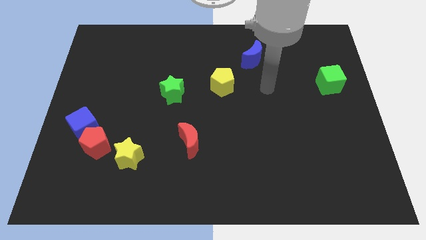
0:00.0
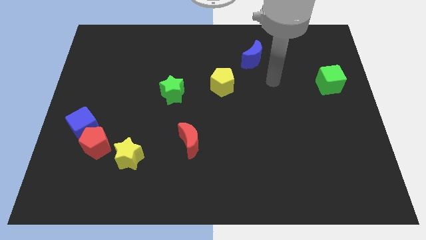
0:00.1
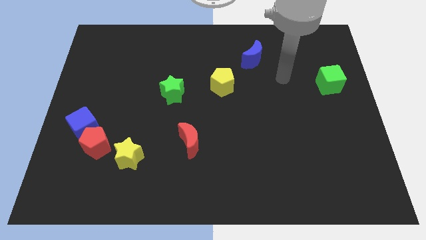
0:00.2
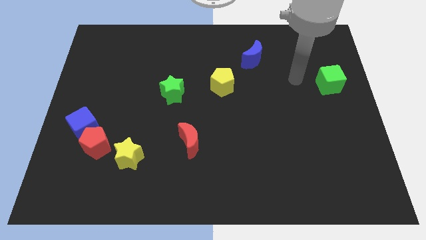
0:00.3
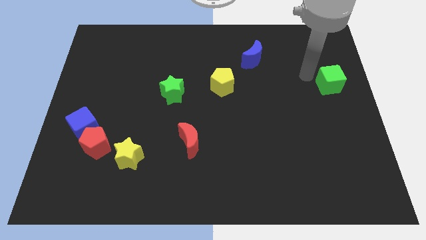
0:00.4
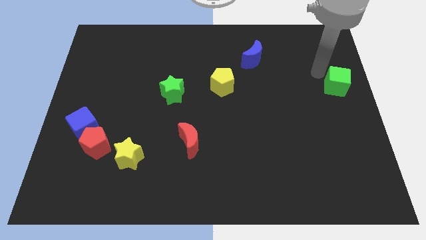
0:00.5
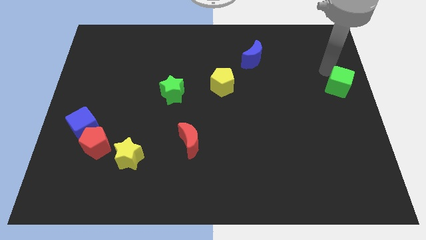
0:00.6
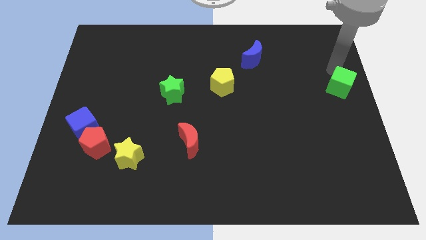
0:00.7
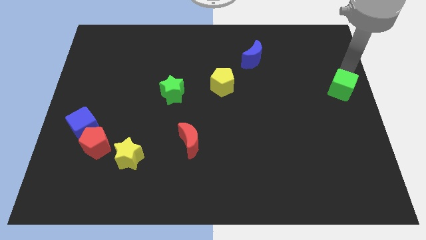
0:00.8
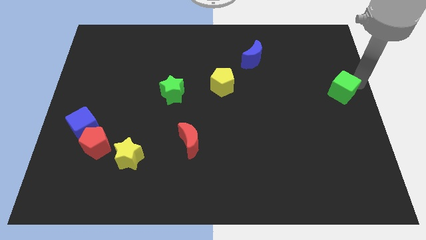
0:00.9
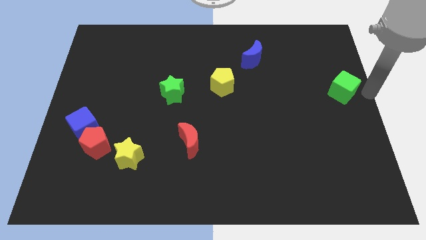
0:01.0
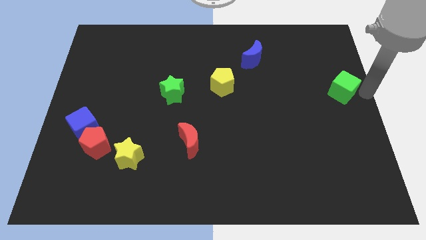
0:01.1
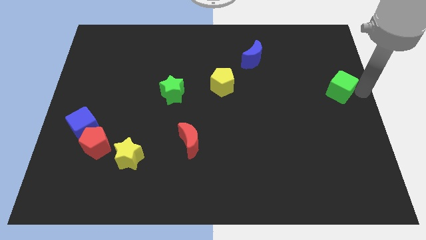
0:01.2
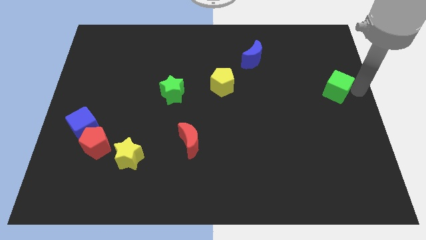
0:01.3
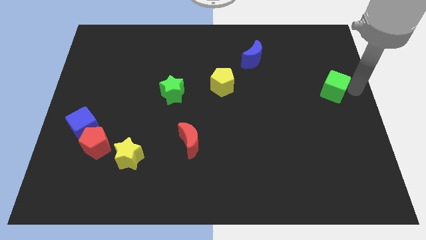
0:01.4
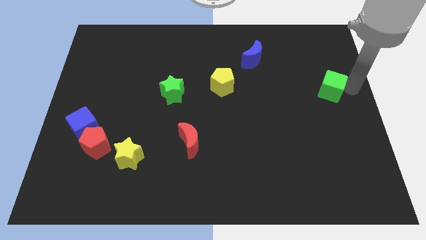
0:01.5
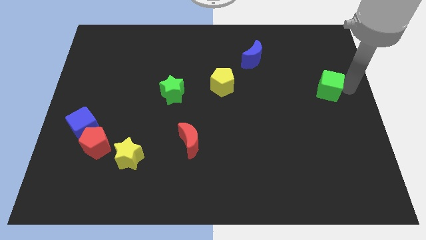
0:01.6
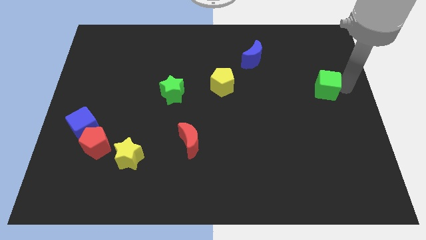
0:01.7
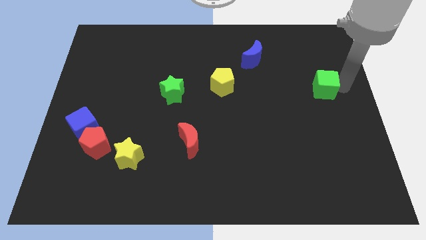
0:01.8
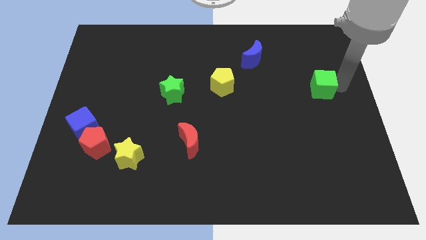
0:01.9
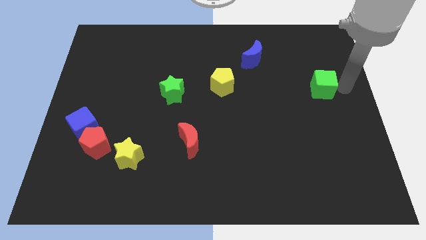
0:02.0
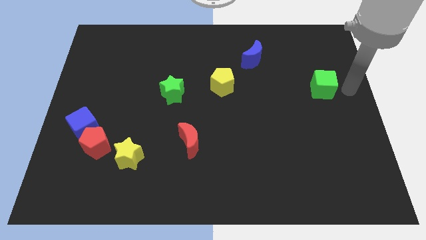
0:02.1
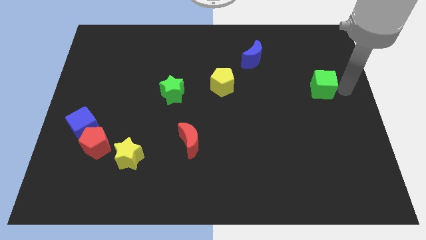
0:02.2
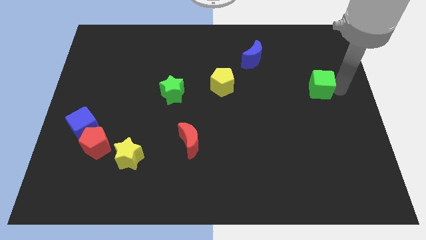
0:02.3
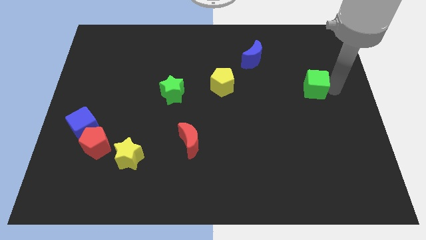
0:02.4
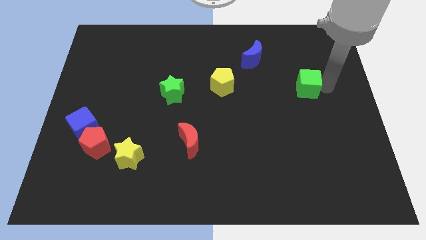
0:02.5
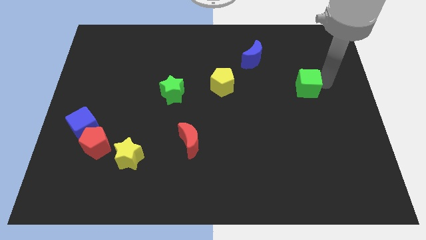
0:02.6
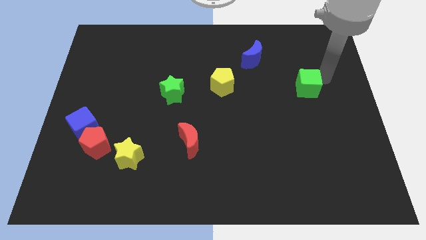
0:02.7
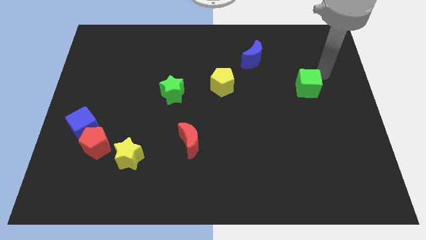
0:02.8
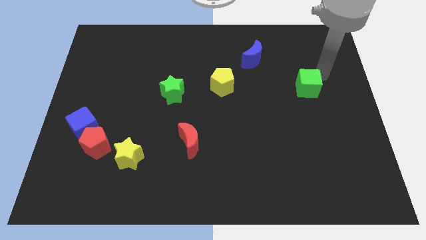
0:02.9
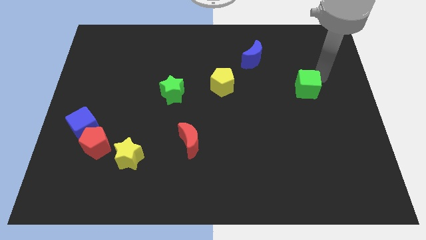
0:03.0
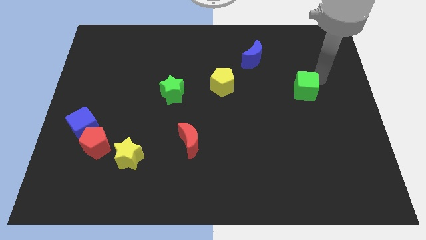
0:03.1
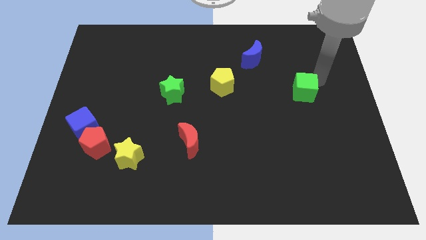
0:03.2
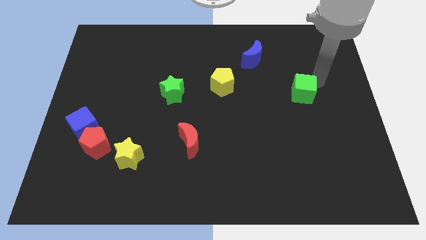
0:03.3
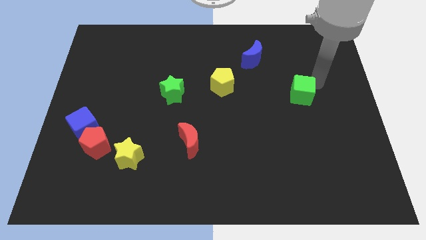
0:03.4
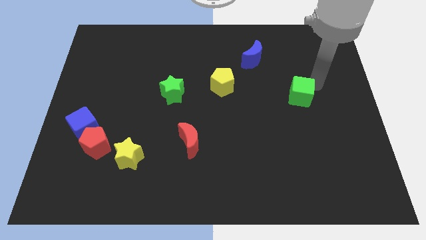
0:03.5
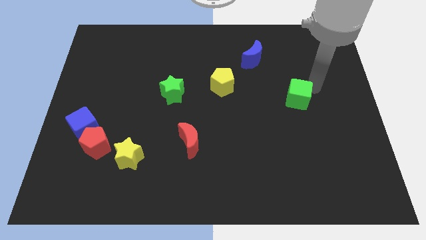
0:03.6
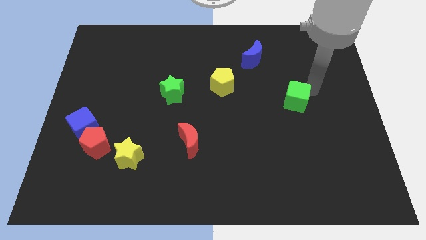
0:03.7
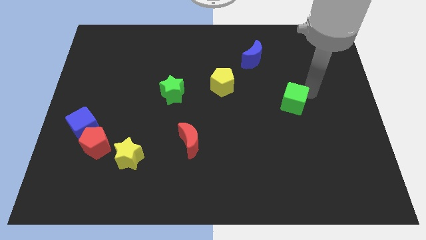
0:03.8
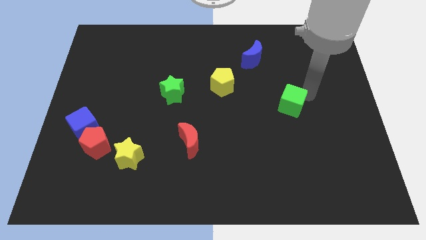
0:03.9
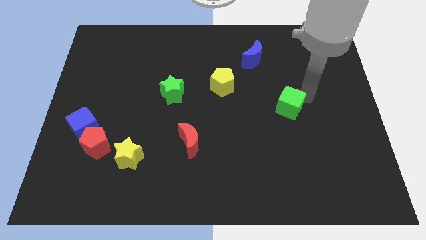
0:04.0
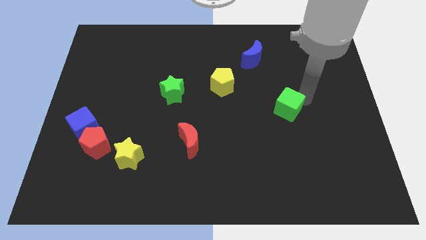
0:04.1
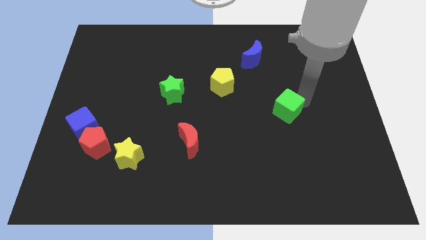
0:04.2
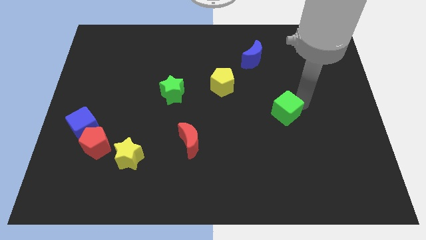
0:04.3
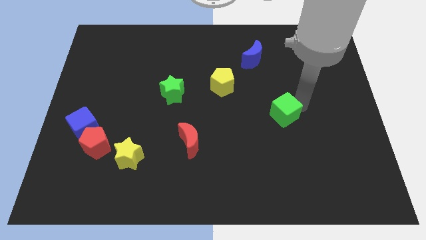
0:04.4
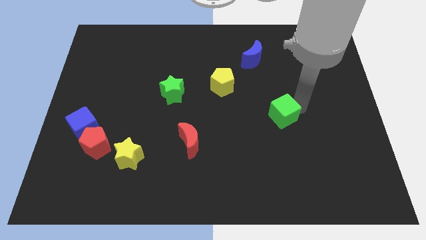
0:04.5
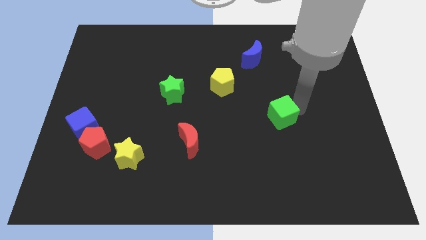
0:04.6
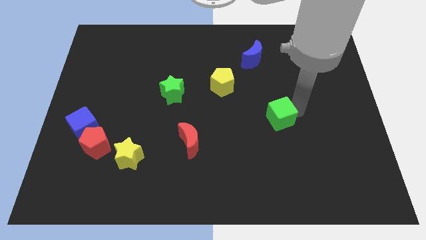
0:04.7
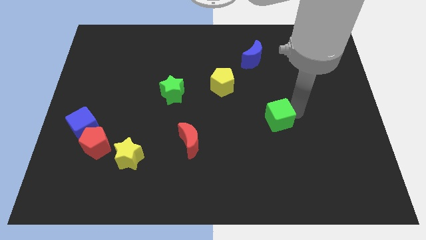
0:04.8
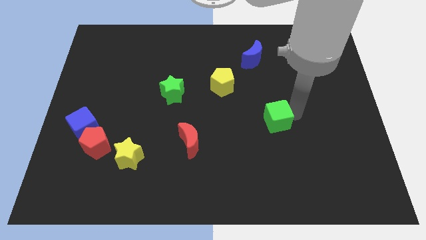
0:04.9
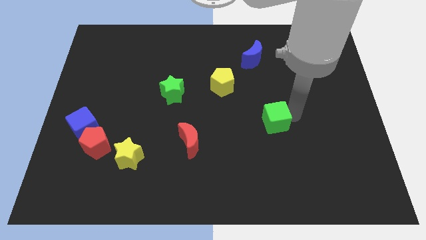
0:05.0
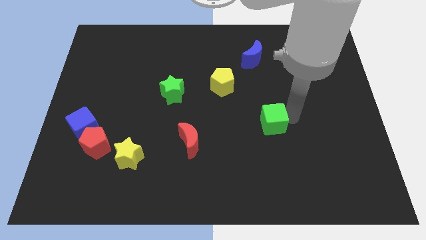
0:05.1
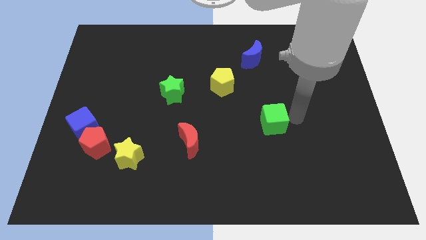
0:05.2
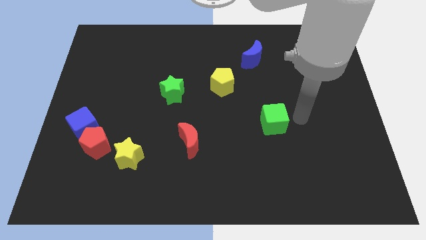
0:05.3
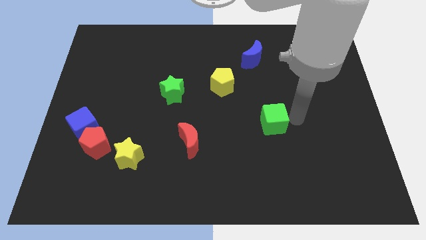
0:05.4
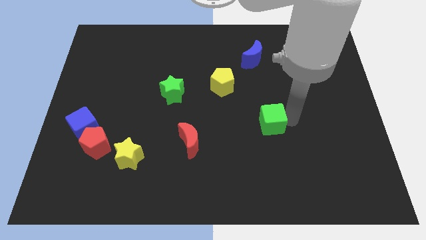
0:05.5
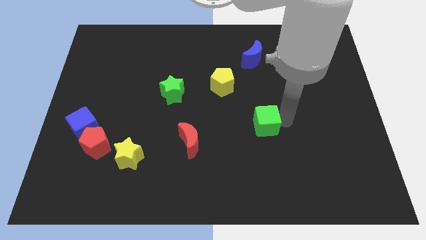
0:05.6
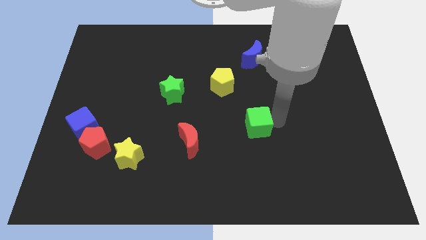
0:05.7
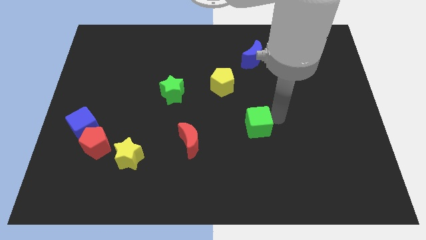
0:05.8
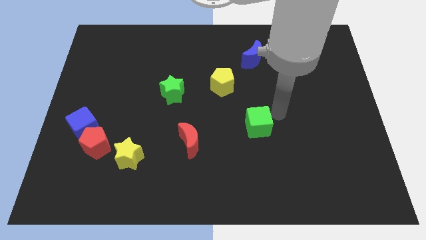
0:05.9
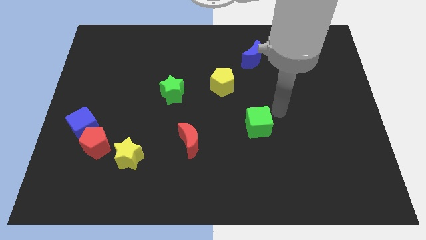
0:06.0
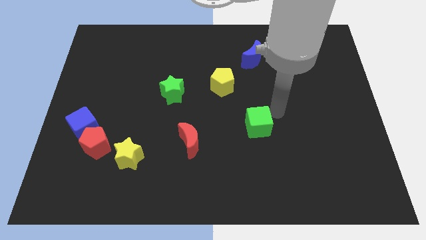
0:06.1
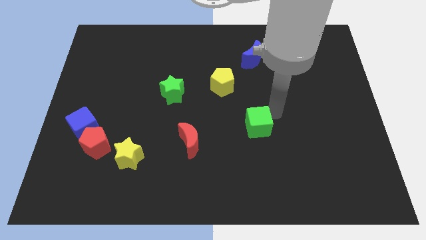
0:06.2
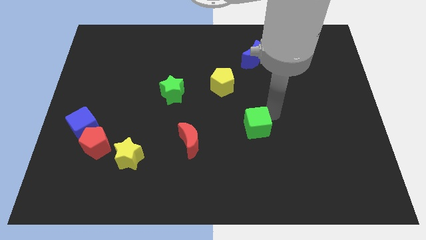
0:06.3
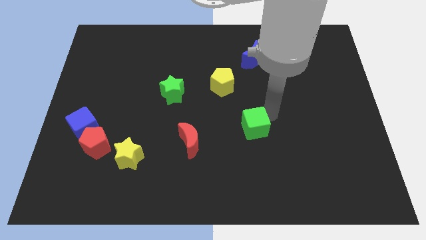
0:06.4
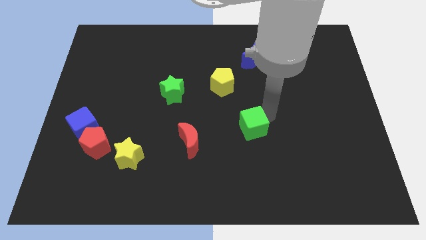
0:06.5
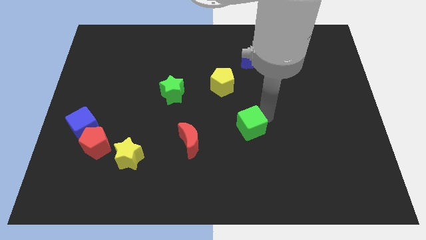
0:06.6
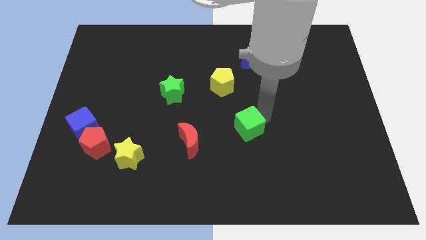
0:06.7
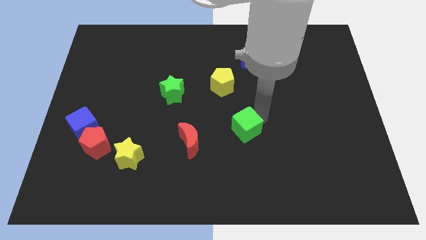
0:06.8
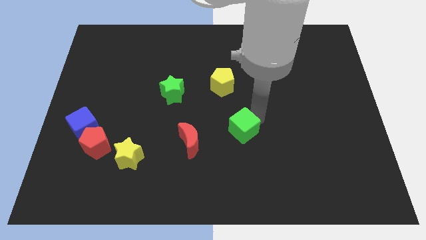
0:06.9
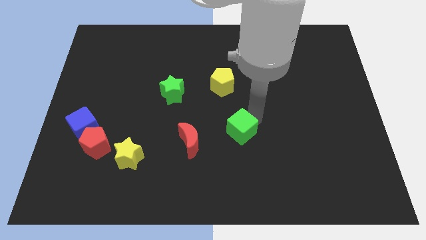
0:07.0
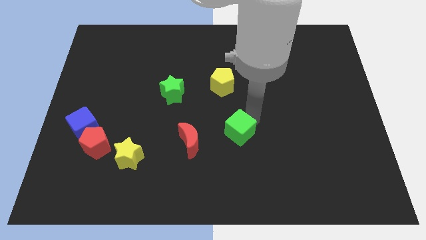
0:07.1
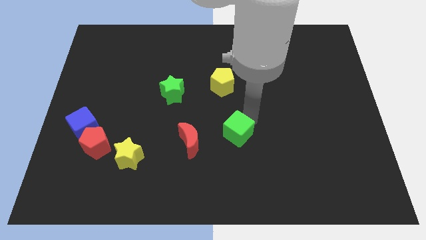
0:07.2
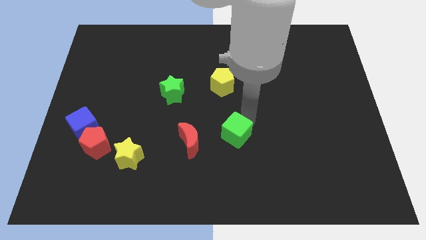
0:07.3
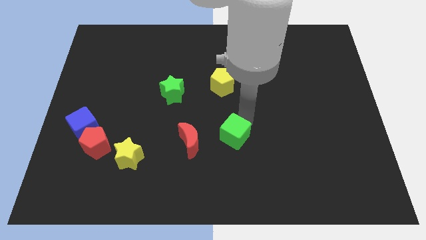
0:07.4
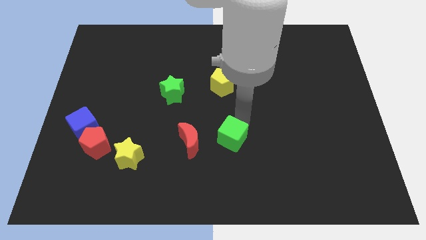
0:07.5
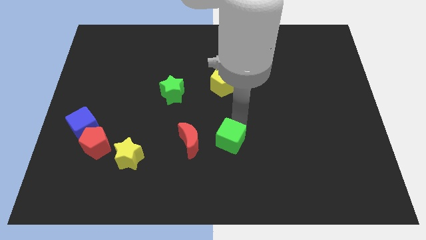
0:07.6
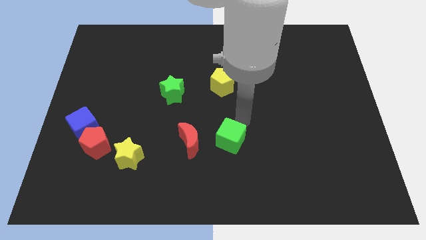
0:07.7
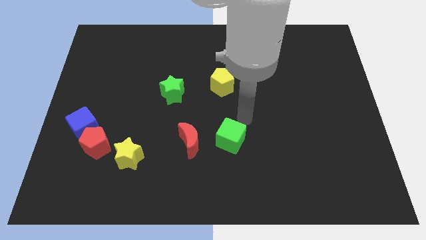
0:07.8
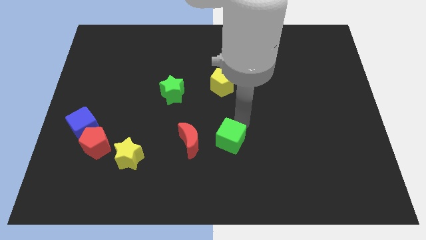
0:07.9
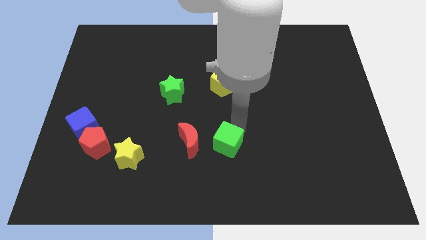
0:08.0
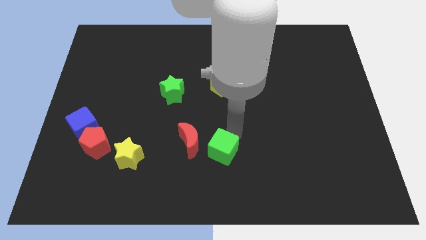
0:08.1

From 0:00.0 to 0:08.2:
slide the green cube to the bottom right of the red moon
